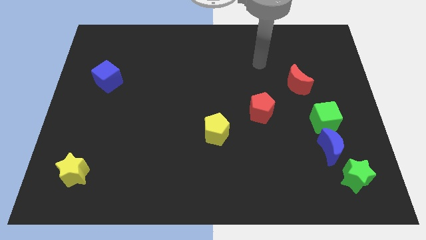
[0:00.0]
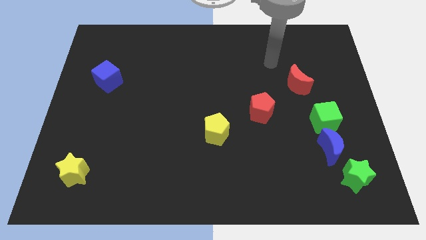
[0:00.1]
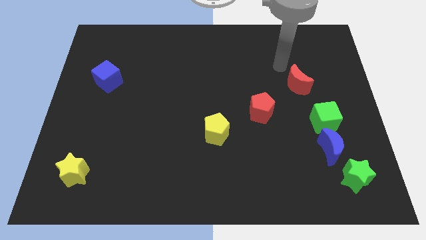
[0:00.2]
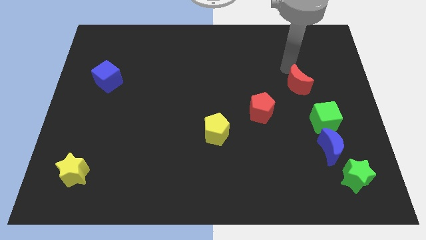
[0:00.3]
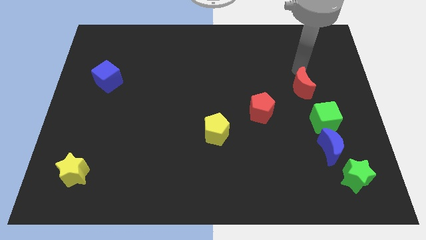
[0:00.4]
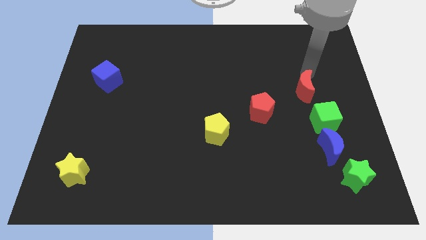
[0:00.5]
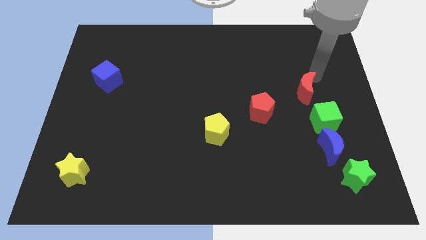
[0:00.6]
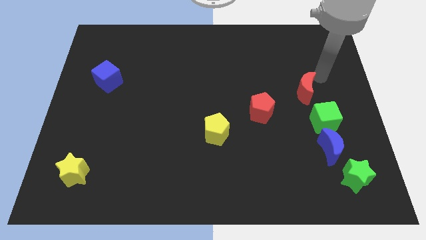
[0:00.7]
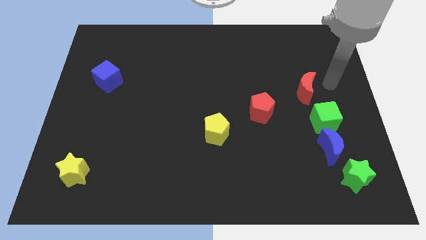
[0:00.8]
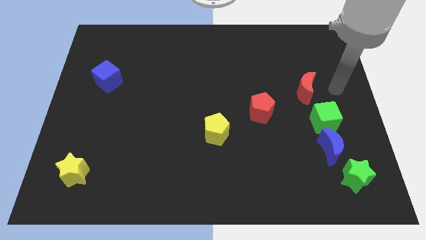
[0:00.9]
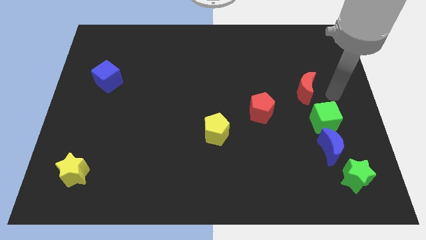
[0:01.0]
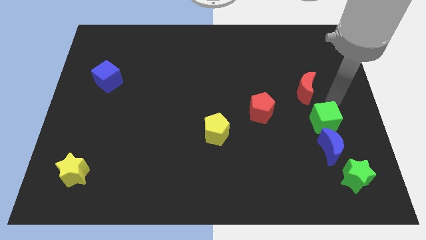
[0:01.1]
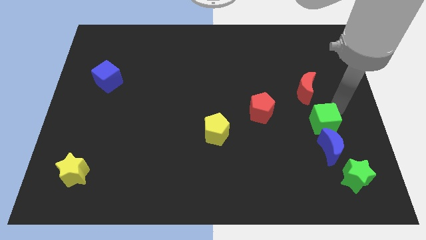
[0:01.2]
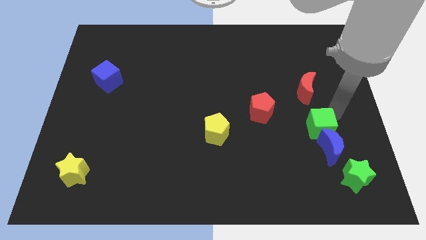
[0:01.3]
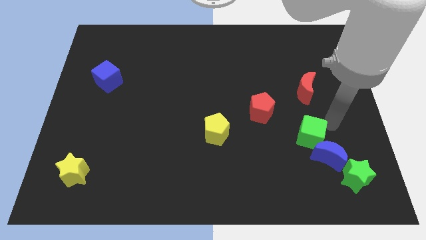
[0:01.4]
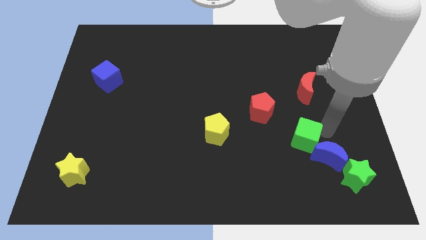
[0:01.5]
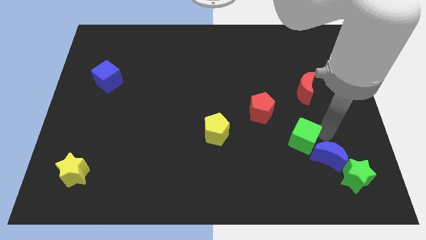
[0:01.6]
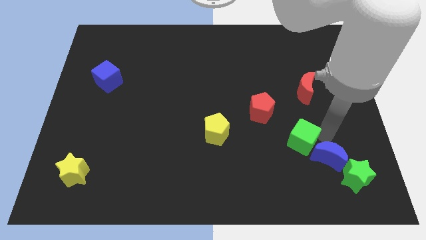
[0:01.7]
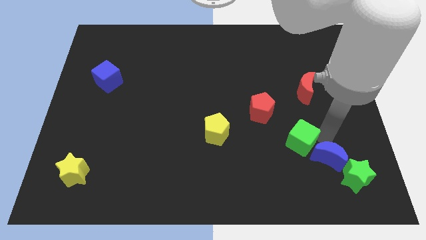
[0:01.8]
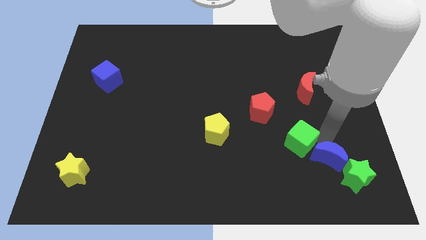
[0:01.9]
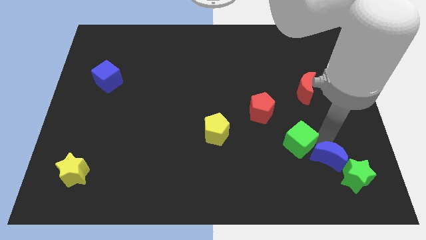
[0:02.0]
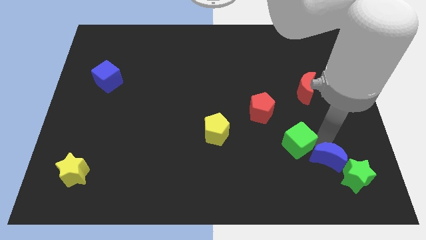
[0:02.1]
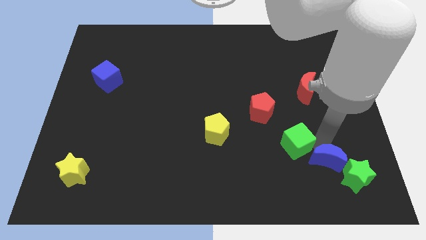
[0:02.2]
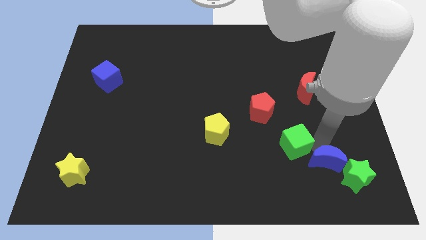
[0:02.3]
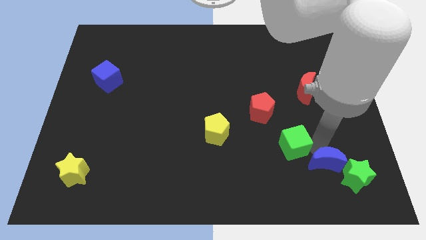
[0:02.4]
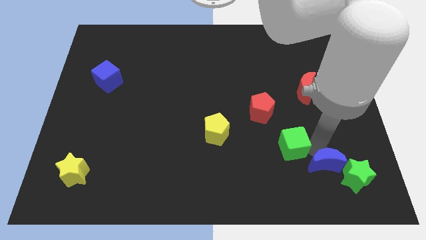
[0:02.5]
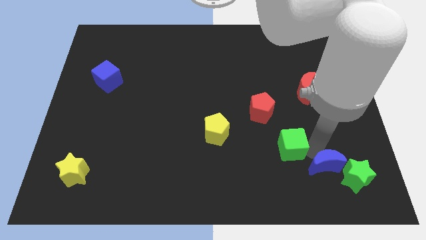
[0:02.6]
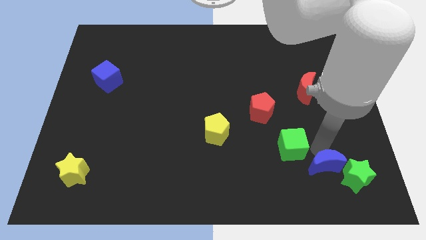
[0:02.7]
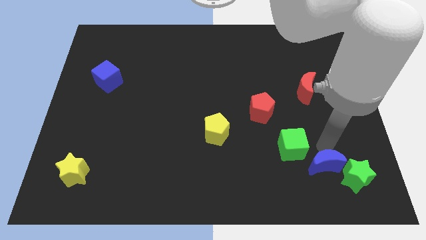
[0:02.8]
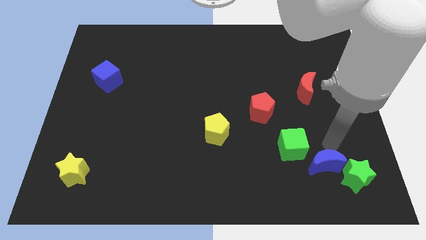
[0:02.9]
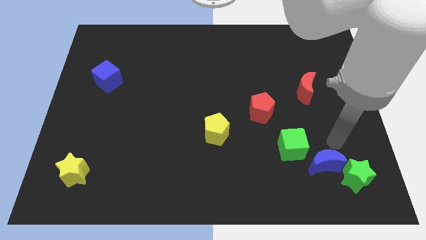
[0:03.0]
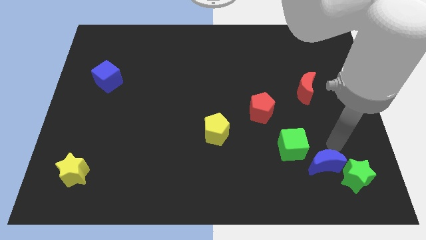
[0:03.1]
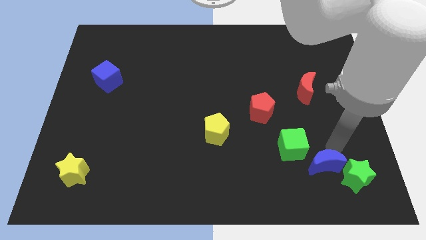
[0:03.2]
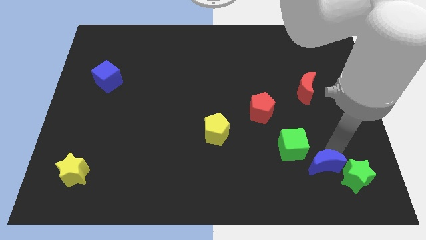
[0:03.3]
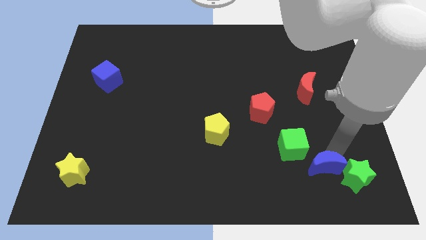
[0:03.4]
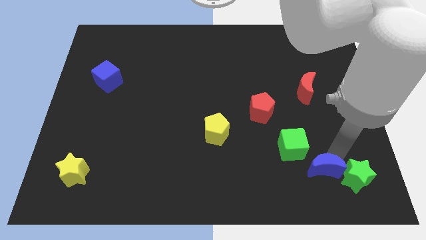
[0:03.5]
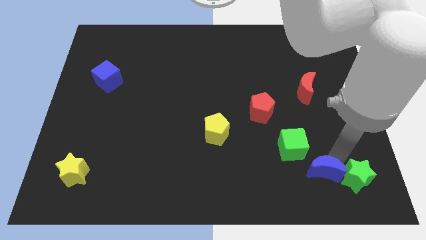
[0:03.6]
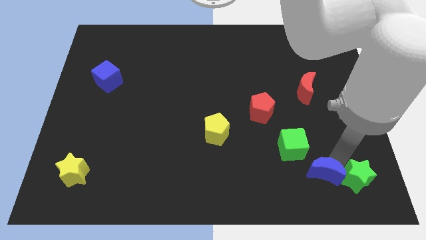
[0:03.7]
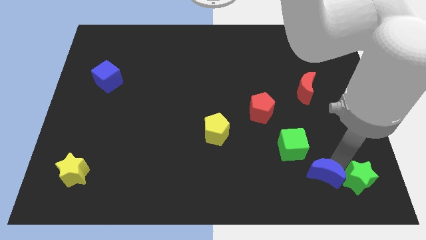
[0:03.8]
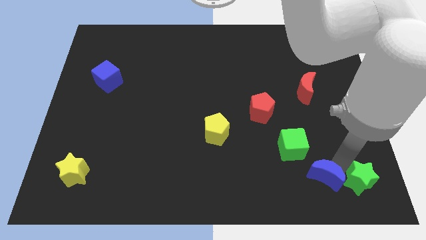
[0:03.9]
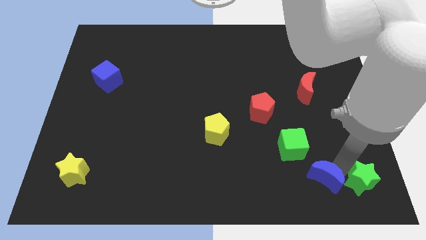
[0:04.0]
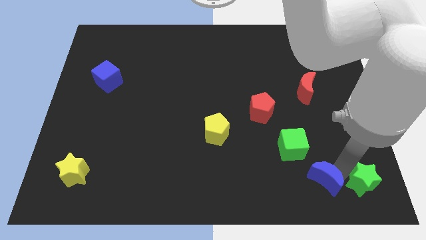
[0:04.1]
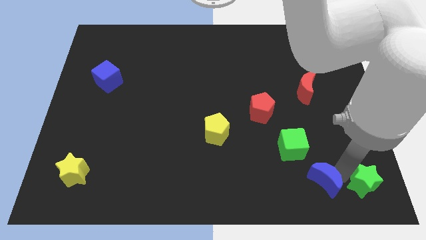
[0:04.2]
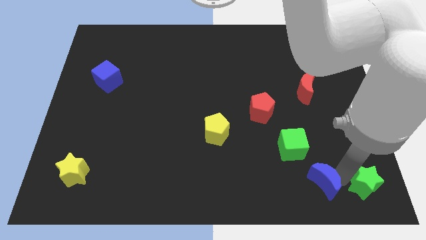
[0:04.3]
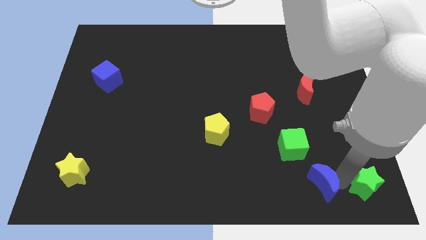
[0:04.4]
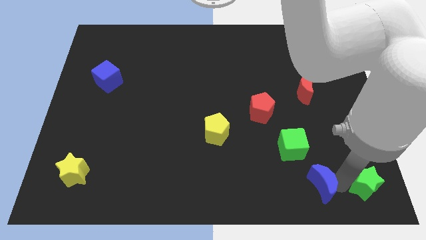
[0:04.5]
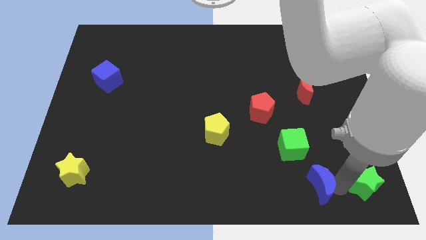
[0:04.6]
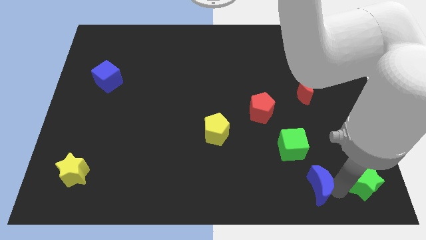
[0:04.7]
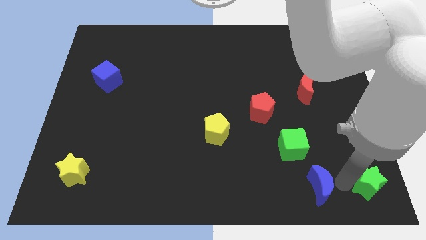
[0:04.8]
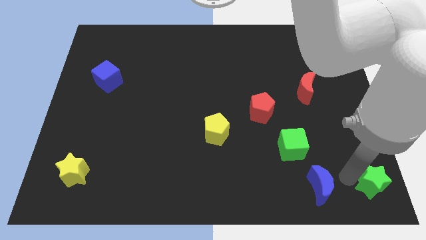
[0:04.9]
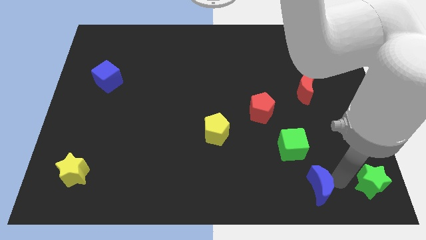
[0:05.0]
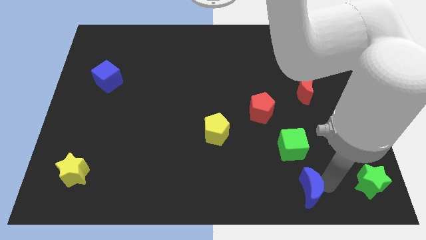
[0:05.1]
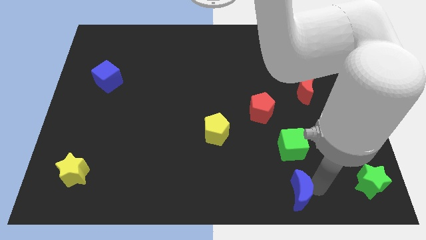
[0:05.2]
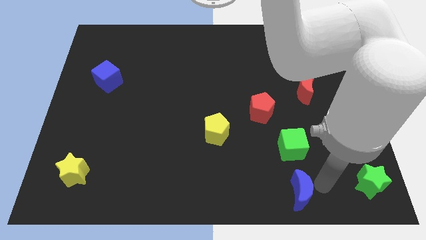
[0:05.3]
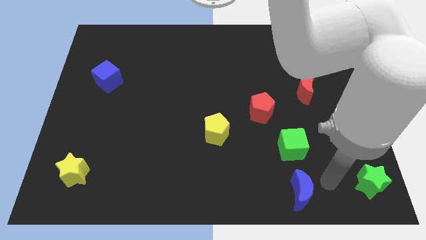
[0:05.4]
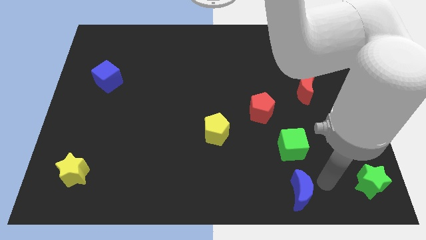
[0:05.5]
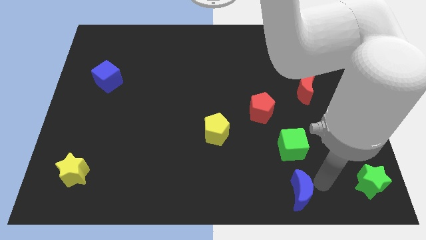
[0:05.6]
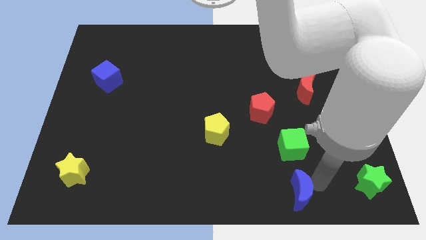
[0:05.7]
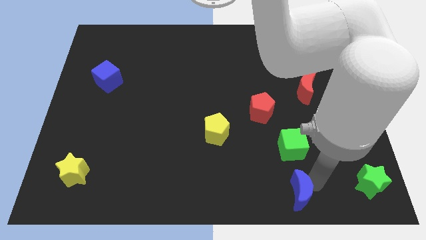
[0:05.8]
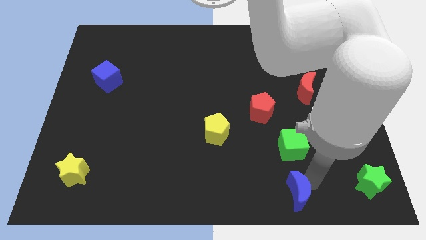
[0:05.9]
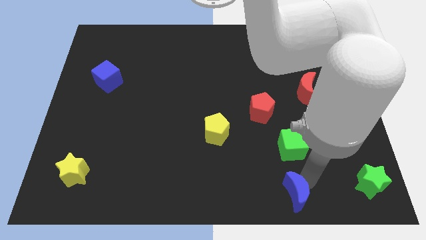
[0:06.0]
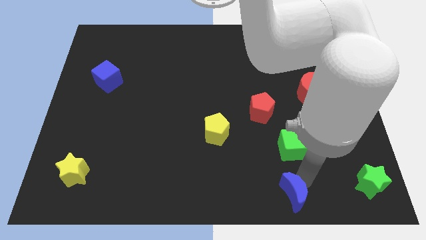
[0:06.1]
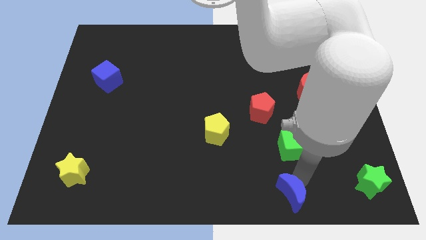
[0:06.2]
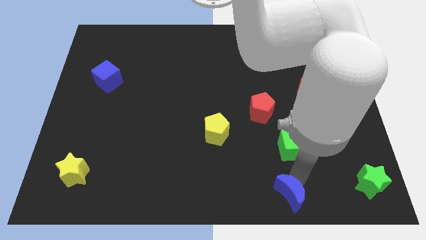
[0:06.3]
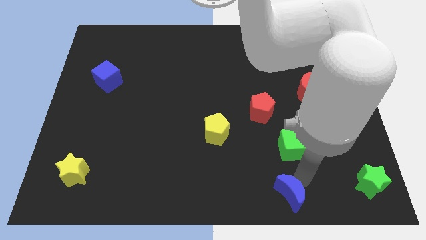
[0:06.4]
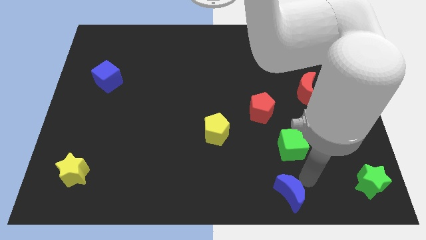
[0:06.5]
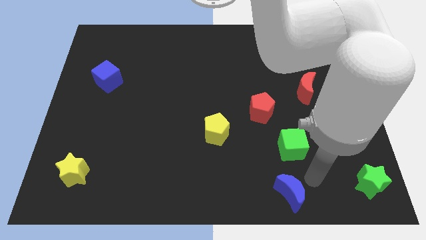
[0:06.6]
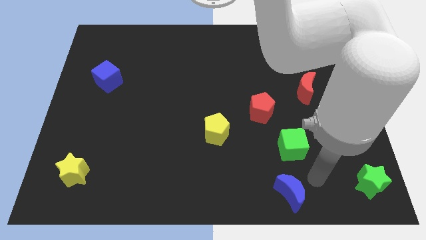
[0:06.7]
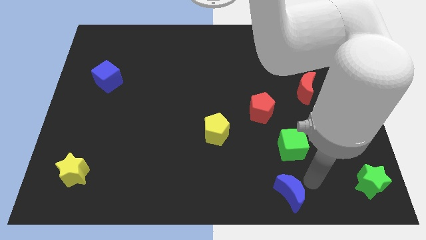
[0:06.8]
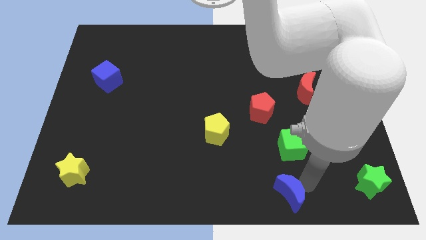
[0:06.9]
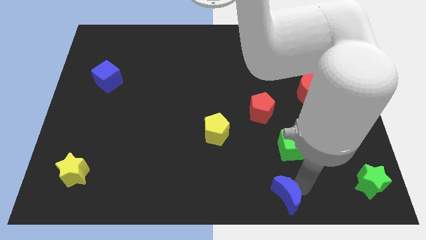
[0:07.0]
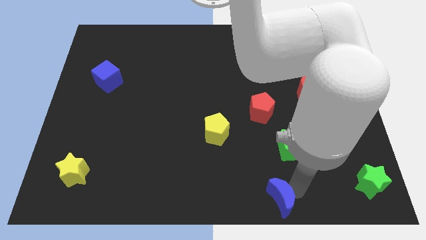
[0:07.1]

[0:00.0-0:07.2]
slide the blue moon to the bottom
